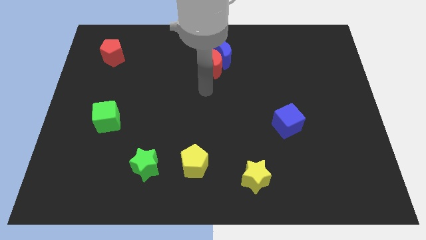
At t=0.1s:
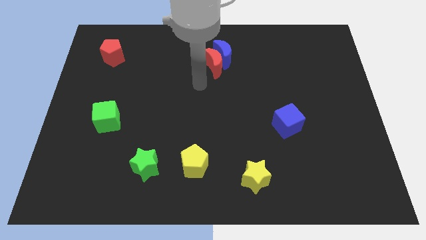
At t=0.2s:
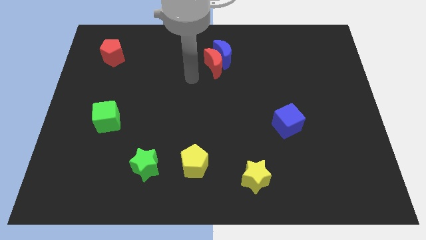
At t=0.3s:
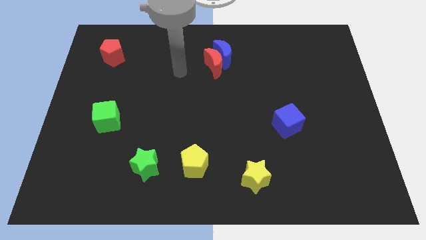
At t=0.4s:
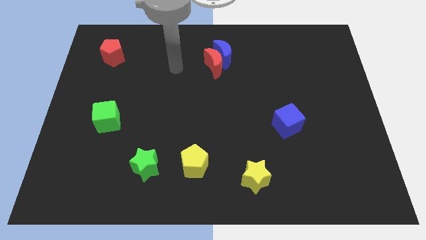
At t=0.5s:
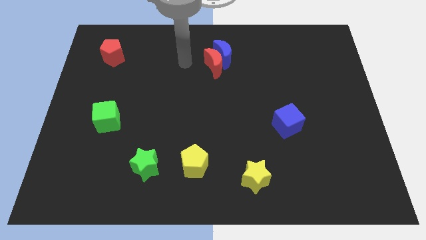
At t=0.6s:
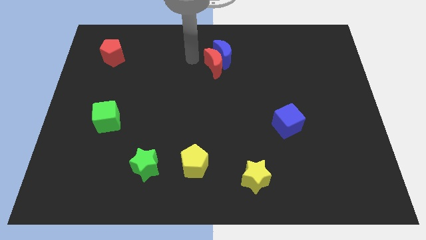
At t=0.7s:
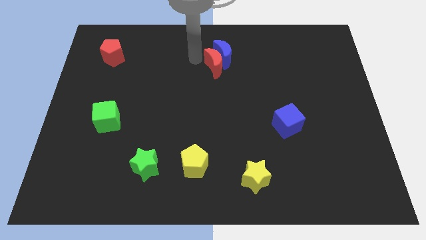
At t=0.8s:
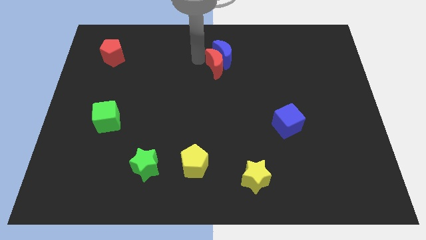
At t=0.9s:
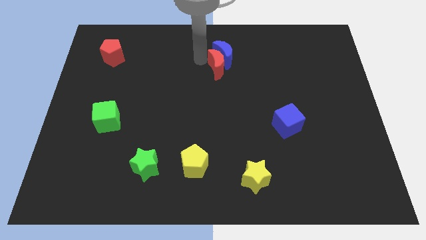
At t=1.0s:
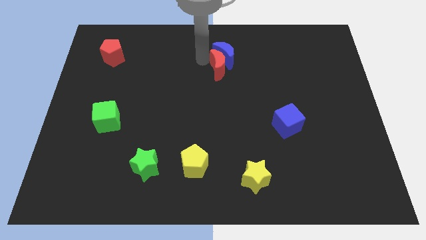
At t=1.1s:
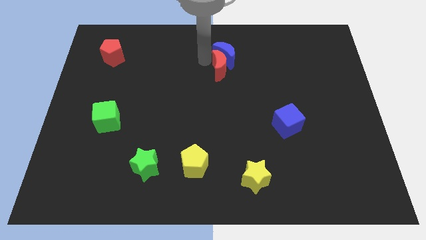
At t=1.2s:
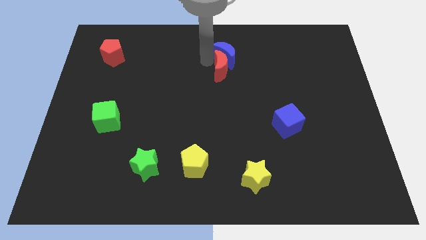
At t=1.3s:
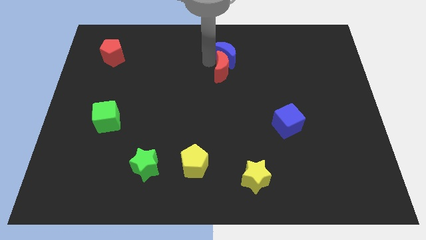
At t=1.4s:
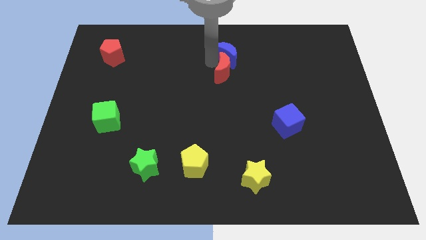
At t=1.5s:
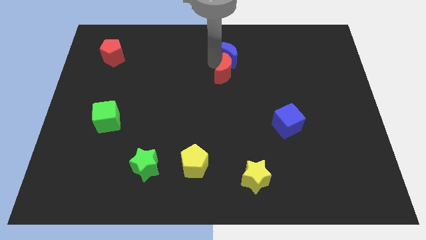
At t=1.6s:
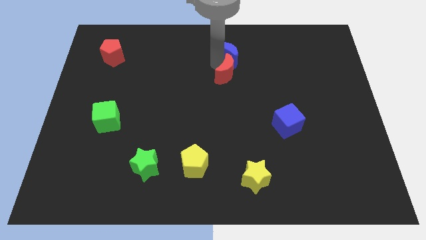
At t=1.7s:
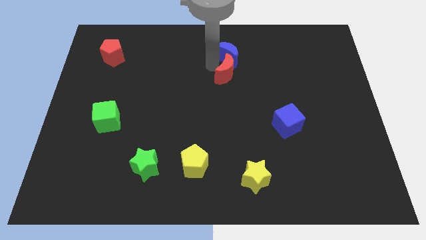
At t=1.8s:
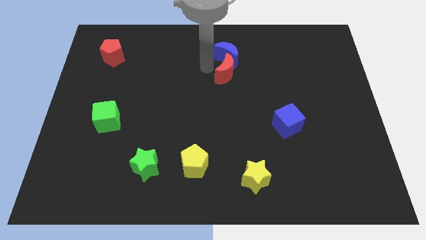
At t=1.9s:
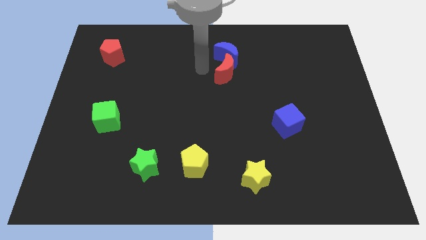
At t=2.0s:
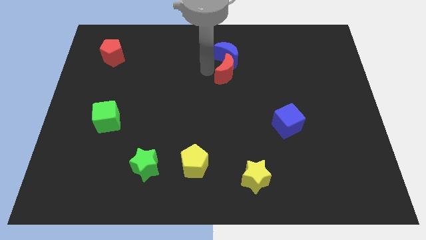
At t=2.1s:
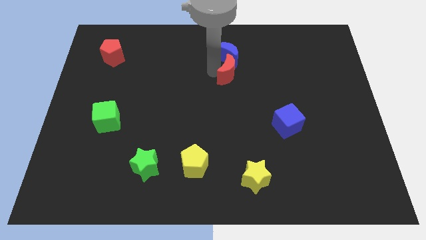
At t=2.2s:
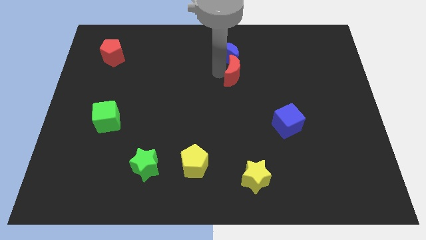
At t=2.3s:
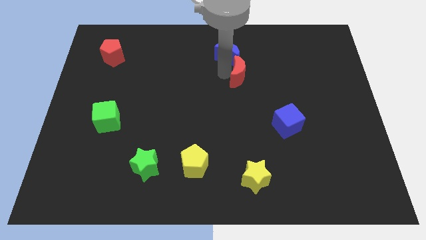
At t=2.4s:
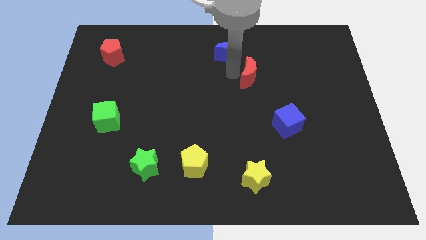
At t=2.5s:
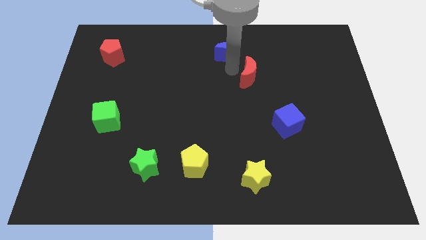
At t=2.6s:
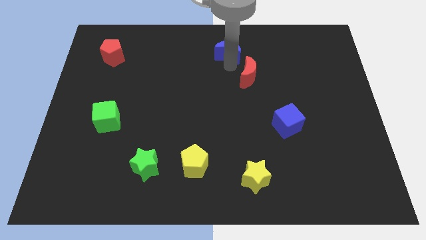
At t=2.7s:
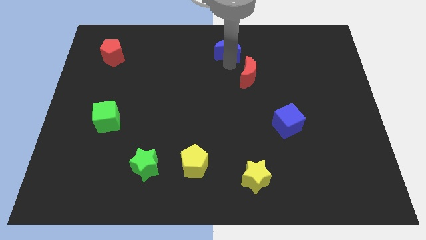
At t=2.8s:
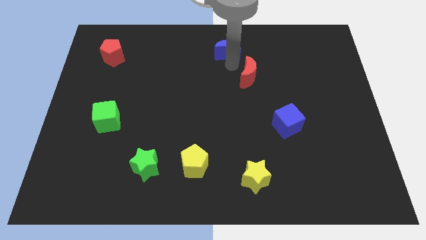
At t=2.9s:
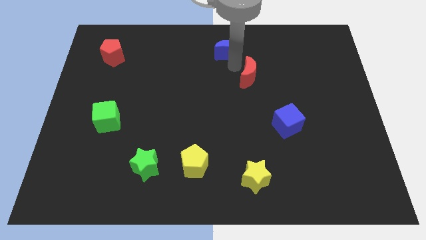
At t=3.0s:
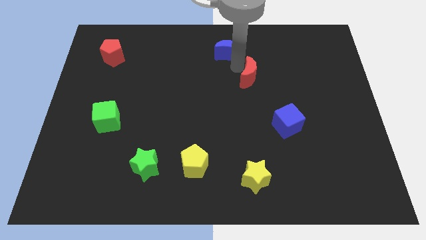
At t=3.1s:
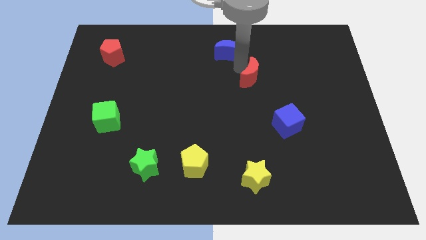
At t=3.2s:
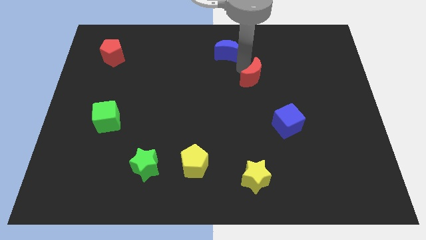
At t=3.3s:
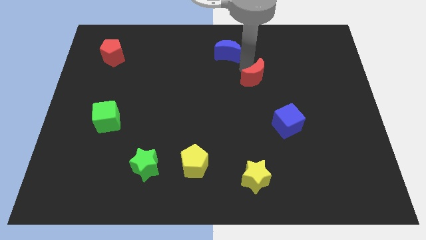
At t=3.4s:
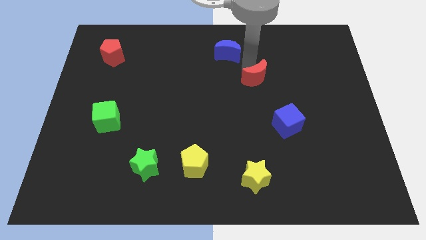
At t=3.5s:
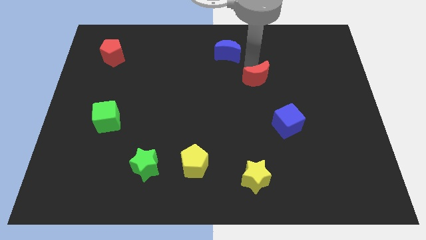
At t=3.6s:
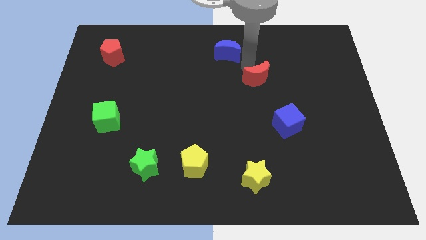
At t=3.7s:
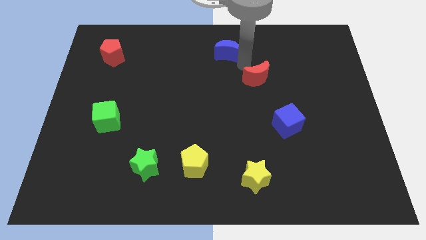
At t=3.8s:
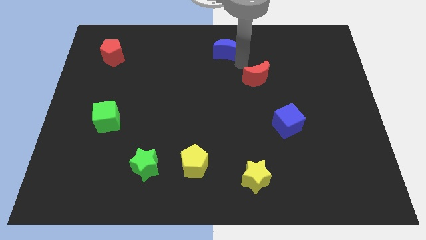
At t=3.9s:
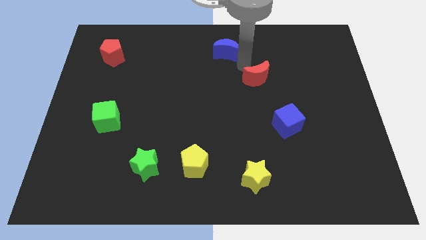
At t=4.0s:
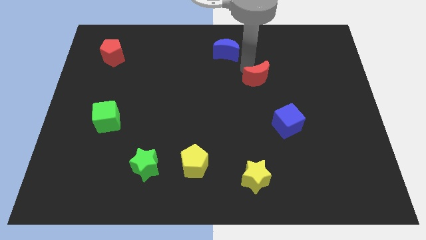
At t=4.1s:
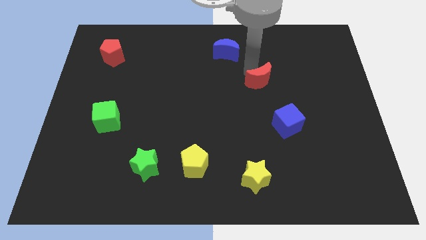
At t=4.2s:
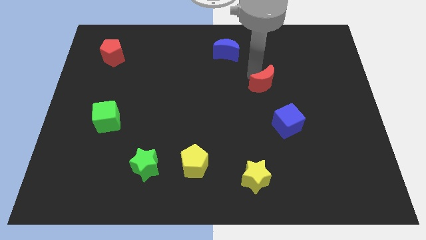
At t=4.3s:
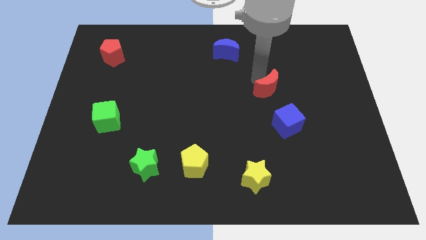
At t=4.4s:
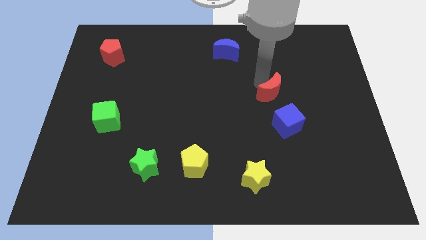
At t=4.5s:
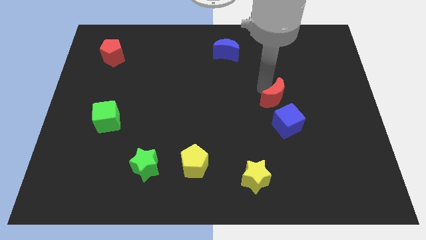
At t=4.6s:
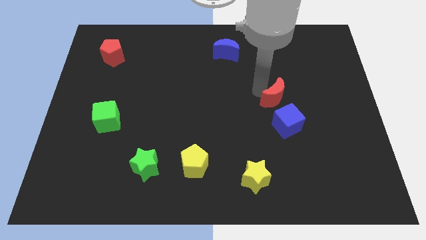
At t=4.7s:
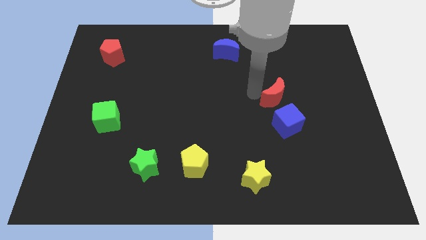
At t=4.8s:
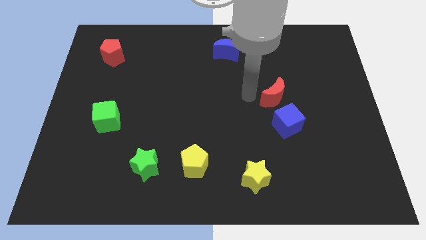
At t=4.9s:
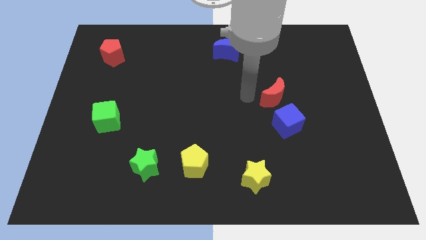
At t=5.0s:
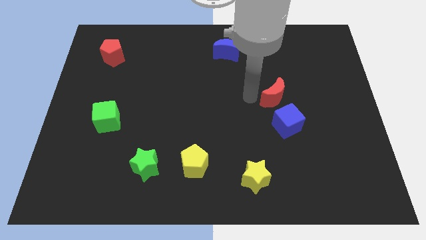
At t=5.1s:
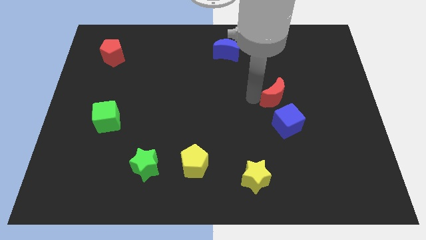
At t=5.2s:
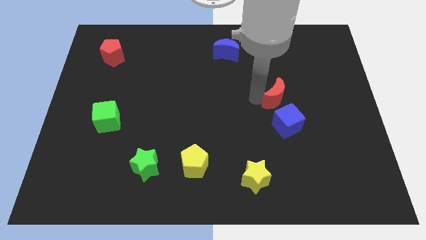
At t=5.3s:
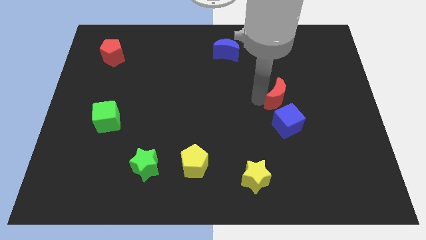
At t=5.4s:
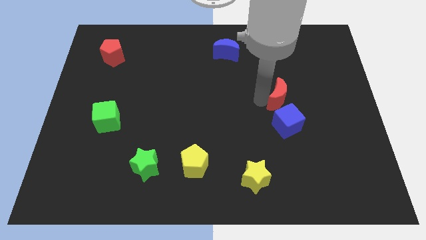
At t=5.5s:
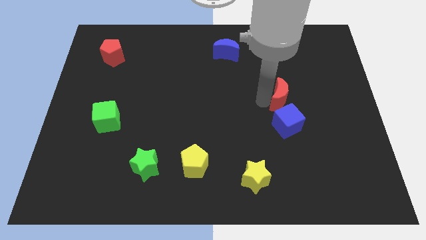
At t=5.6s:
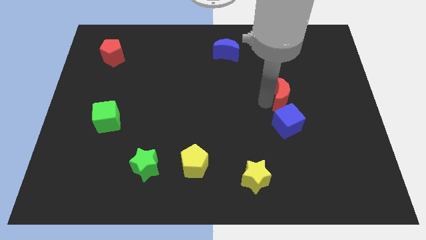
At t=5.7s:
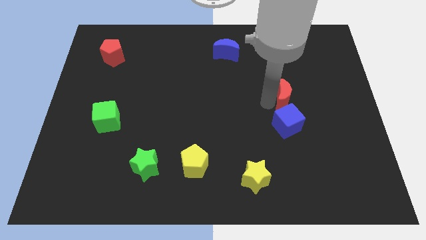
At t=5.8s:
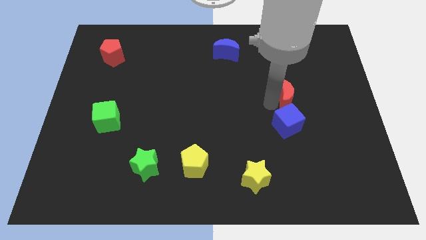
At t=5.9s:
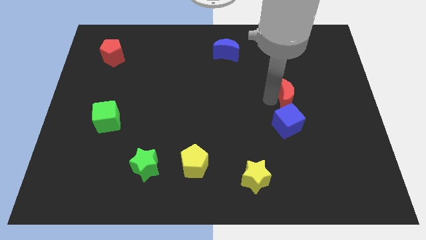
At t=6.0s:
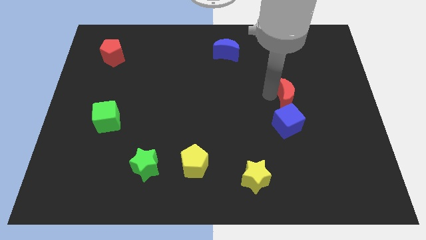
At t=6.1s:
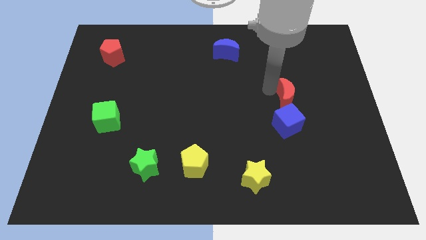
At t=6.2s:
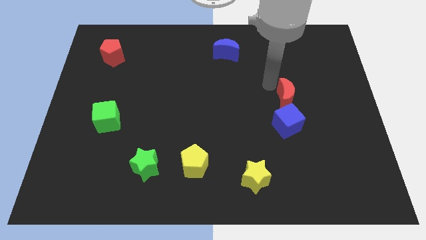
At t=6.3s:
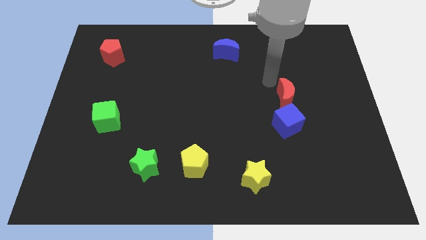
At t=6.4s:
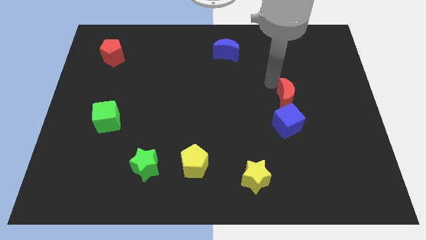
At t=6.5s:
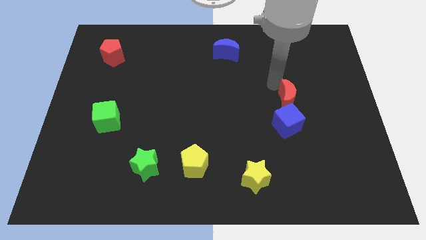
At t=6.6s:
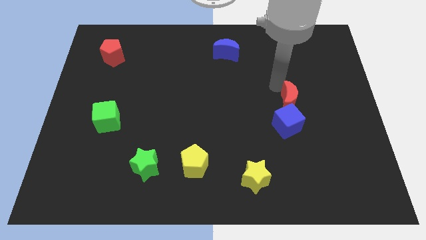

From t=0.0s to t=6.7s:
slide the red moon down and right diagonally

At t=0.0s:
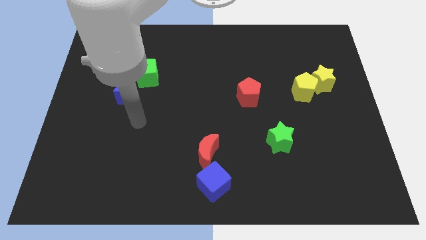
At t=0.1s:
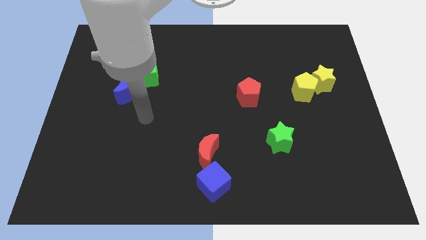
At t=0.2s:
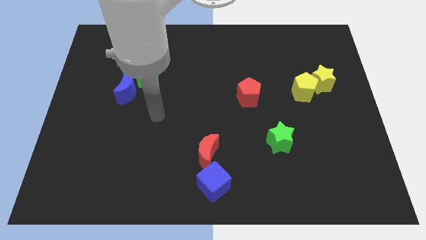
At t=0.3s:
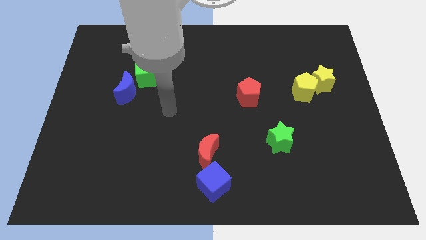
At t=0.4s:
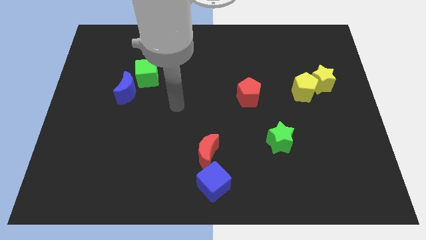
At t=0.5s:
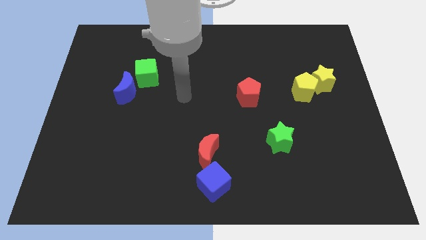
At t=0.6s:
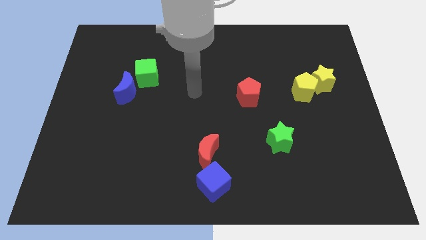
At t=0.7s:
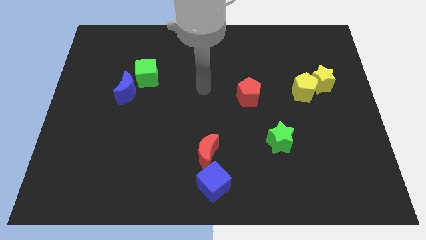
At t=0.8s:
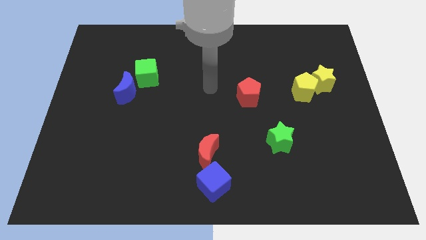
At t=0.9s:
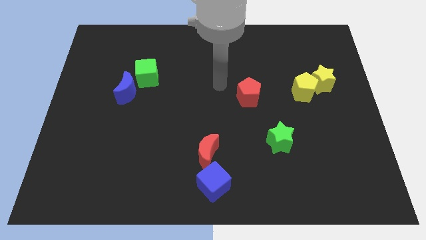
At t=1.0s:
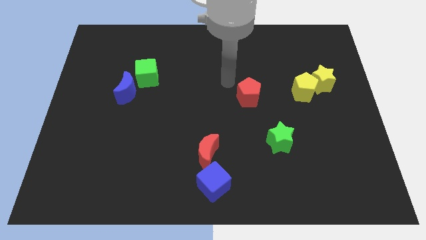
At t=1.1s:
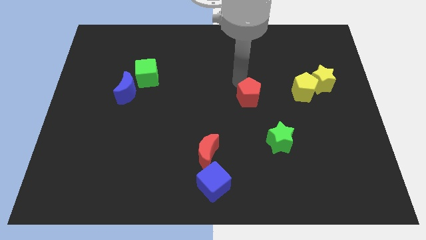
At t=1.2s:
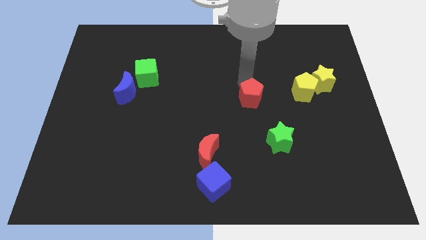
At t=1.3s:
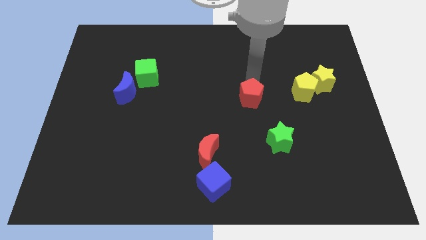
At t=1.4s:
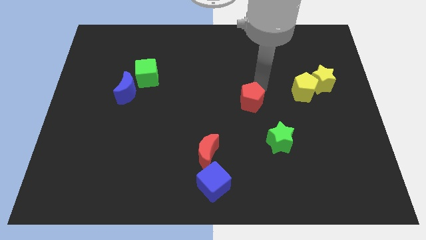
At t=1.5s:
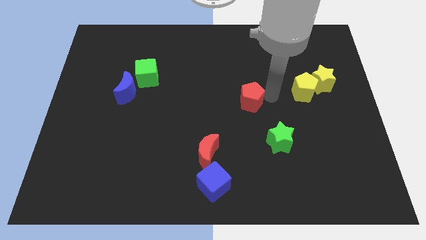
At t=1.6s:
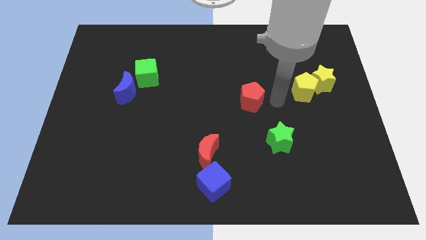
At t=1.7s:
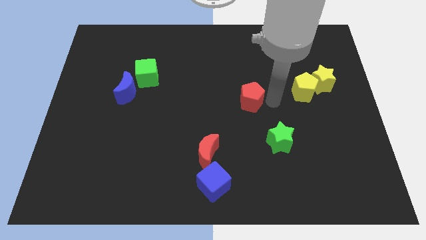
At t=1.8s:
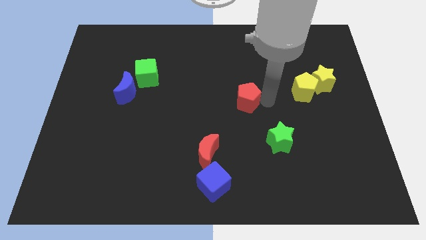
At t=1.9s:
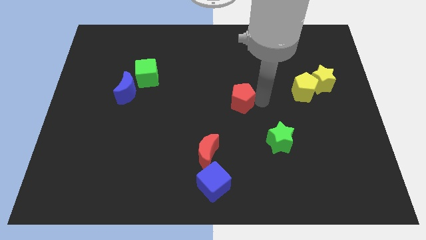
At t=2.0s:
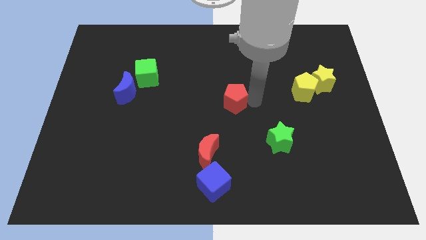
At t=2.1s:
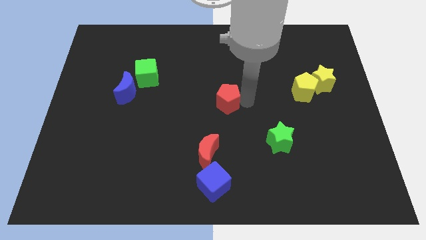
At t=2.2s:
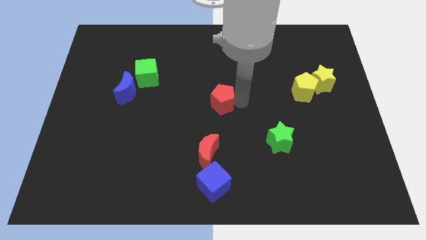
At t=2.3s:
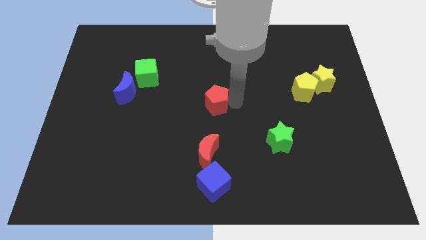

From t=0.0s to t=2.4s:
slightly move the red pentagon to the left
